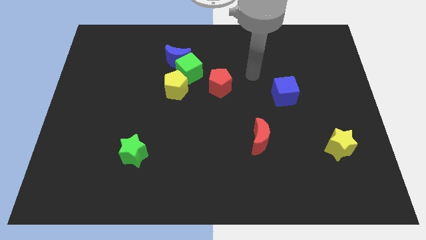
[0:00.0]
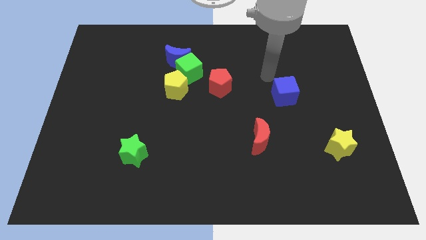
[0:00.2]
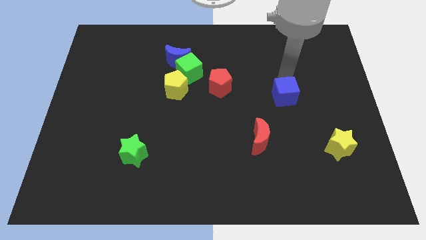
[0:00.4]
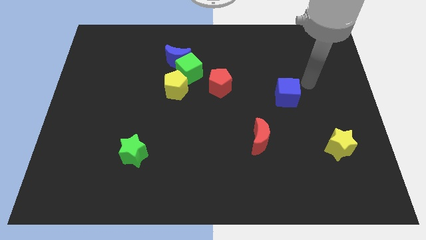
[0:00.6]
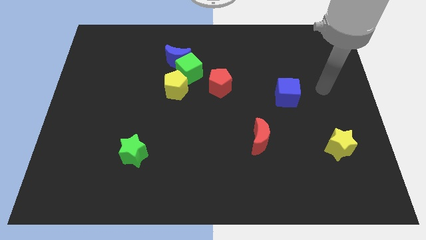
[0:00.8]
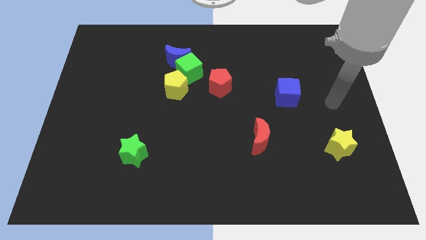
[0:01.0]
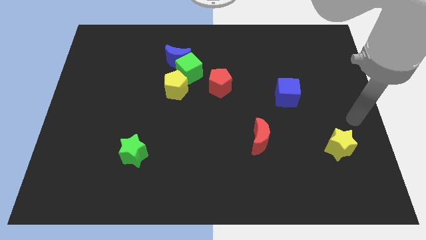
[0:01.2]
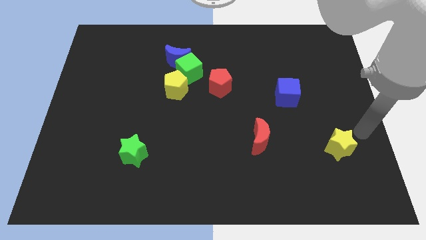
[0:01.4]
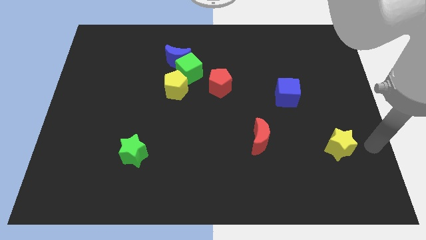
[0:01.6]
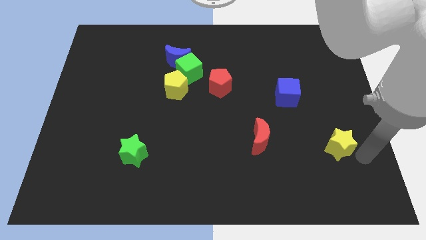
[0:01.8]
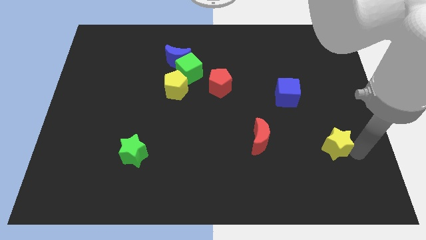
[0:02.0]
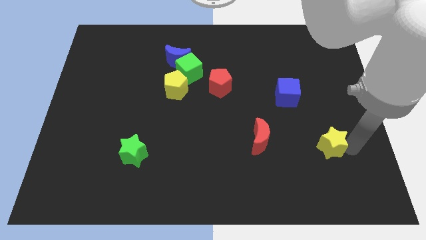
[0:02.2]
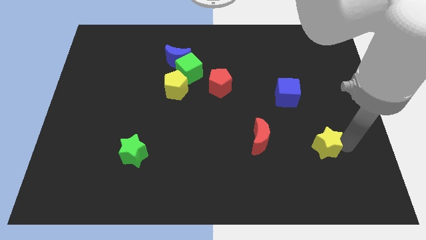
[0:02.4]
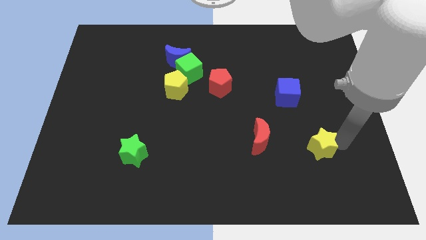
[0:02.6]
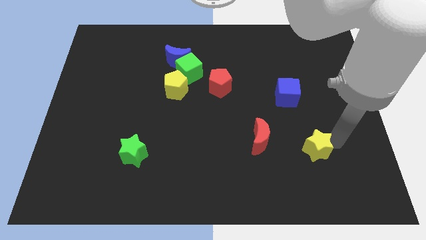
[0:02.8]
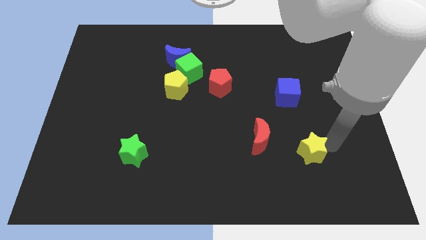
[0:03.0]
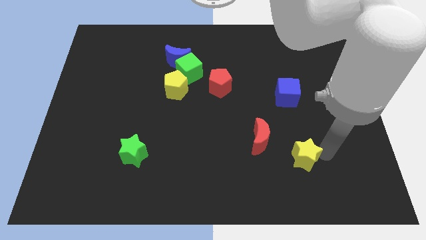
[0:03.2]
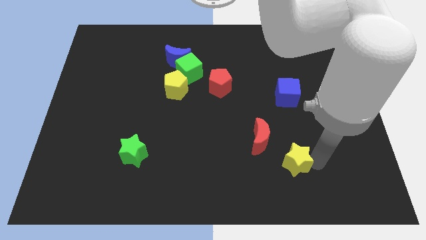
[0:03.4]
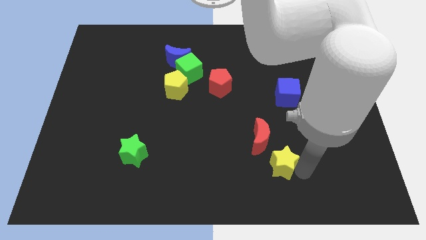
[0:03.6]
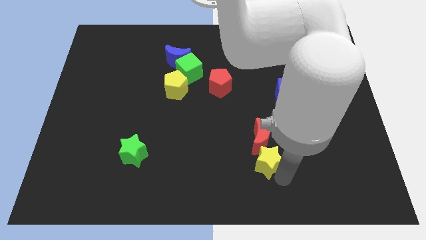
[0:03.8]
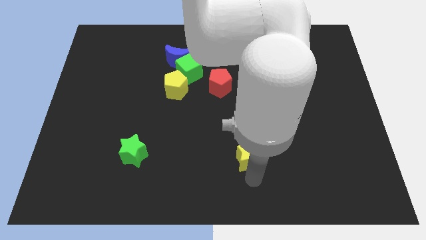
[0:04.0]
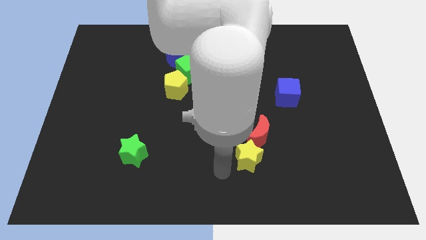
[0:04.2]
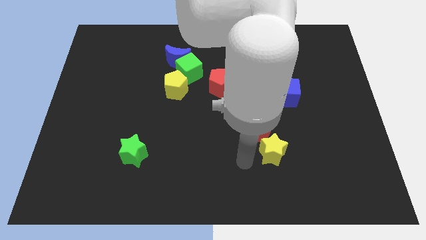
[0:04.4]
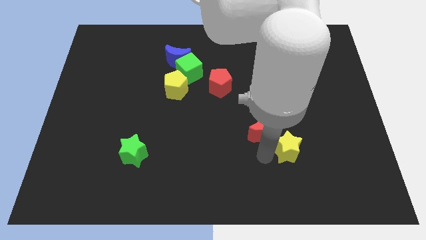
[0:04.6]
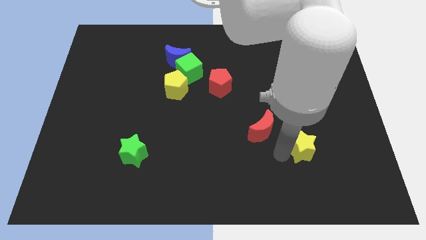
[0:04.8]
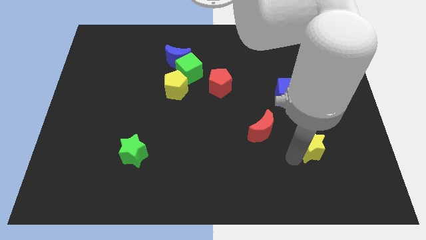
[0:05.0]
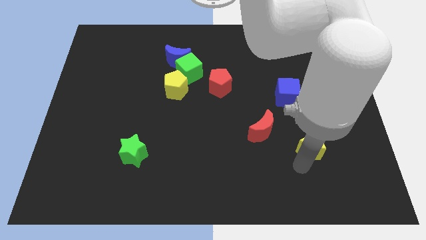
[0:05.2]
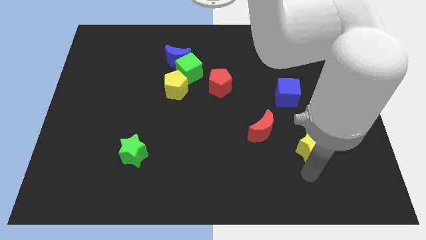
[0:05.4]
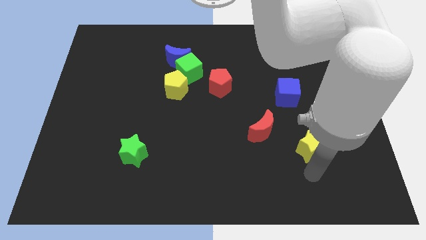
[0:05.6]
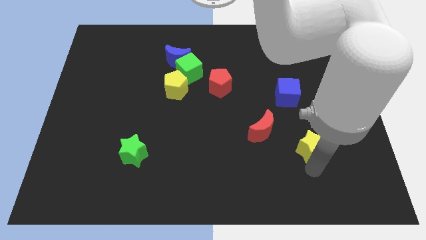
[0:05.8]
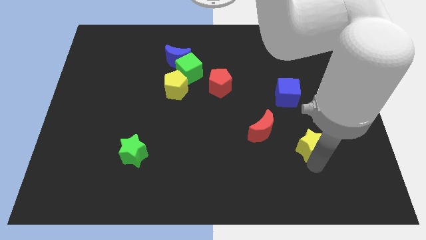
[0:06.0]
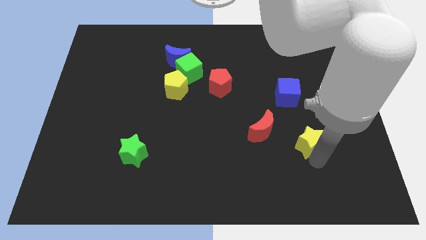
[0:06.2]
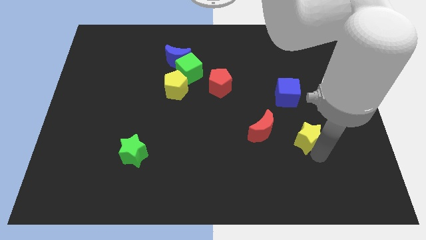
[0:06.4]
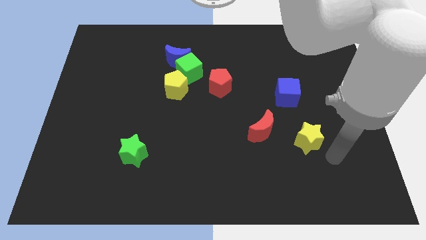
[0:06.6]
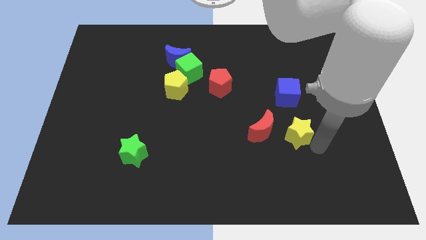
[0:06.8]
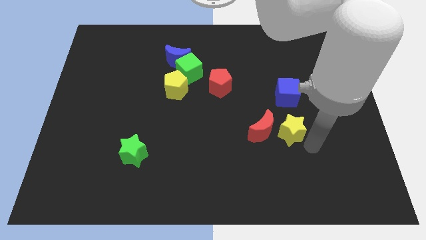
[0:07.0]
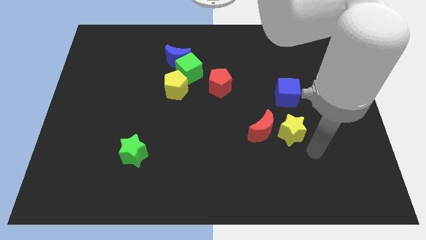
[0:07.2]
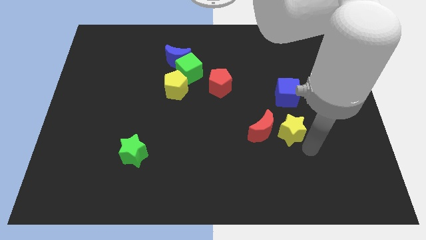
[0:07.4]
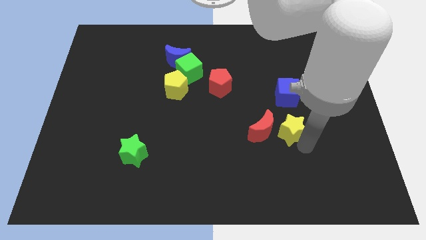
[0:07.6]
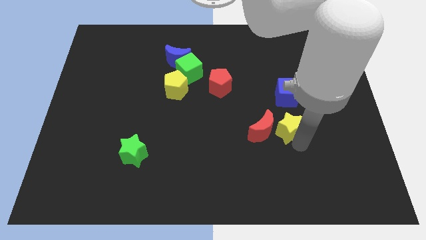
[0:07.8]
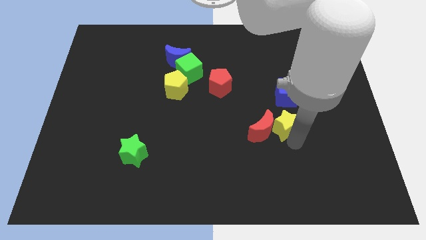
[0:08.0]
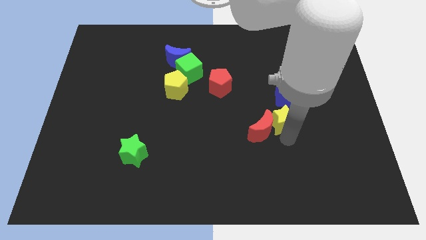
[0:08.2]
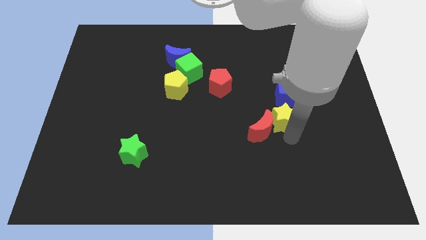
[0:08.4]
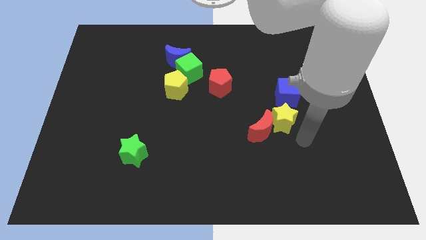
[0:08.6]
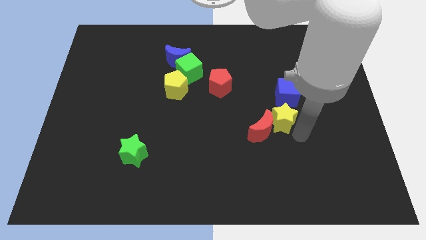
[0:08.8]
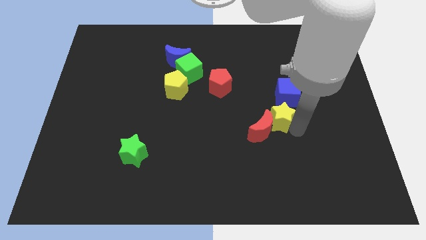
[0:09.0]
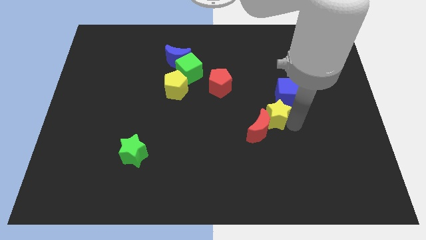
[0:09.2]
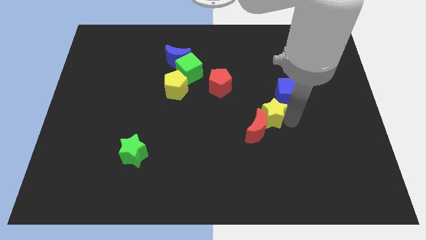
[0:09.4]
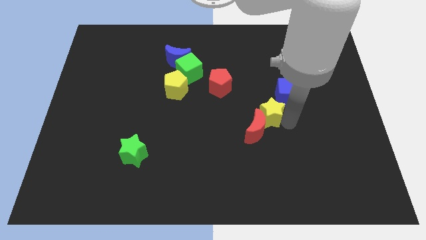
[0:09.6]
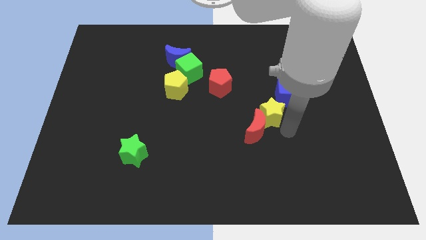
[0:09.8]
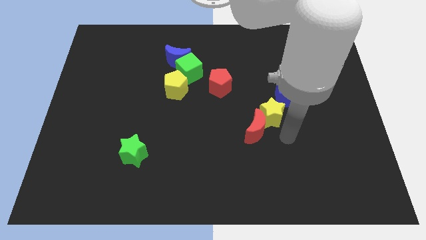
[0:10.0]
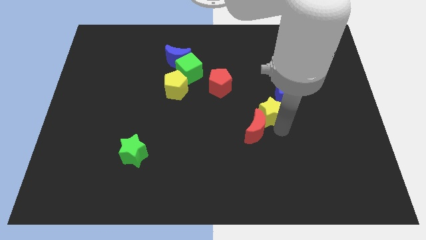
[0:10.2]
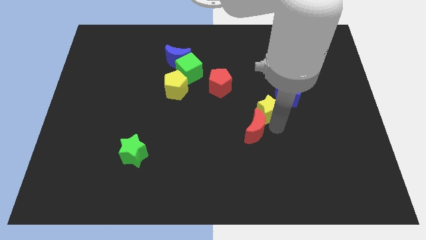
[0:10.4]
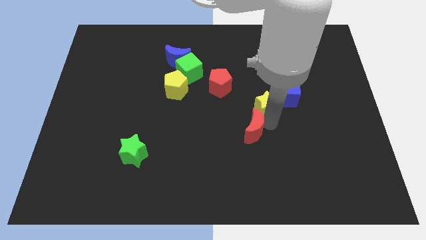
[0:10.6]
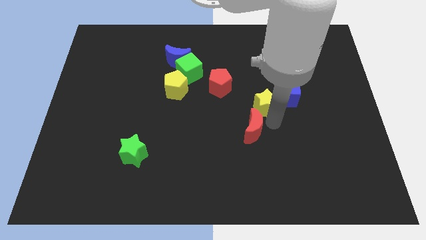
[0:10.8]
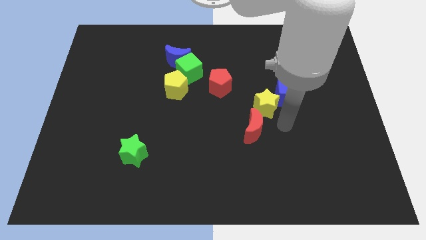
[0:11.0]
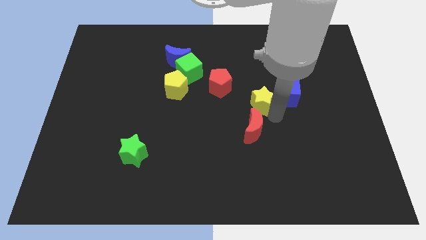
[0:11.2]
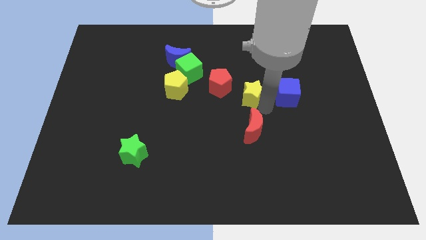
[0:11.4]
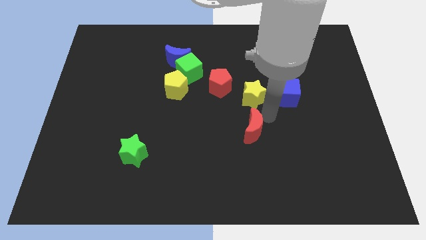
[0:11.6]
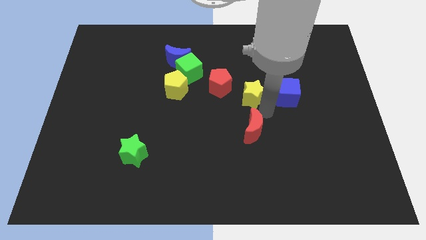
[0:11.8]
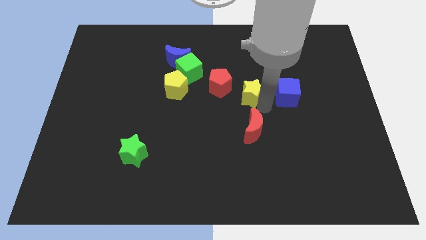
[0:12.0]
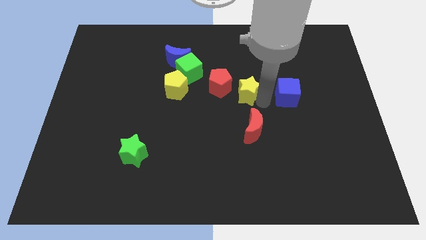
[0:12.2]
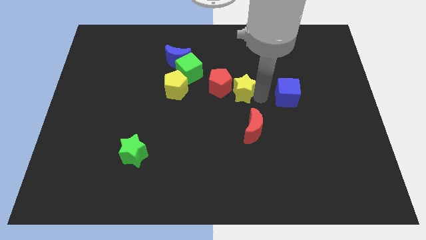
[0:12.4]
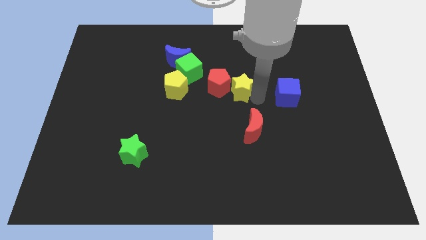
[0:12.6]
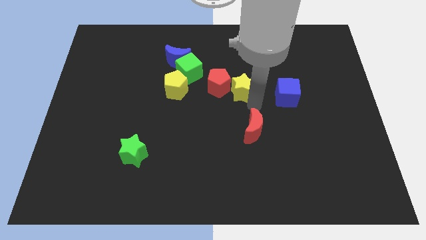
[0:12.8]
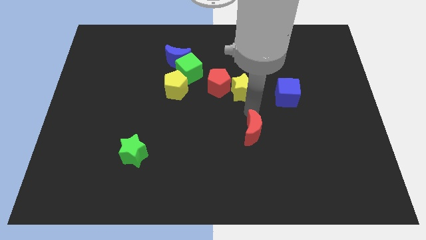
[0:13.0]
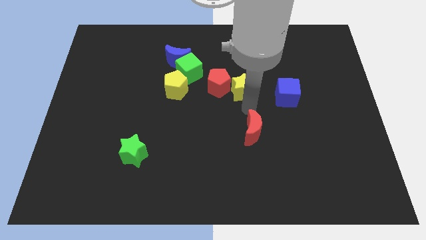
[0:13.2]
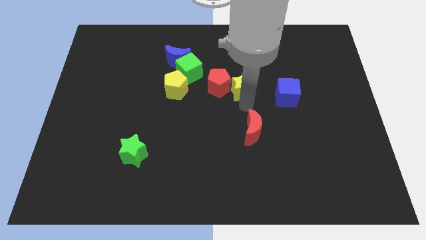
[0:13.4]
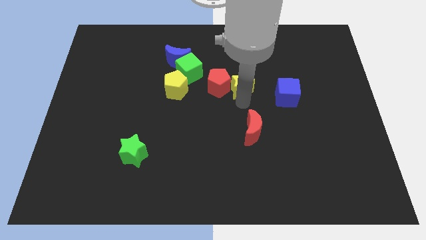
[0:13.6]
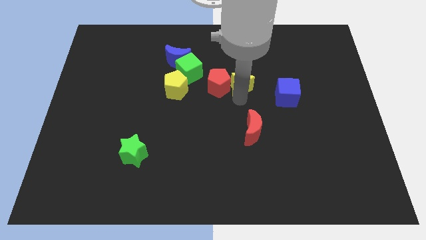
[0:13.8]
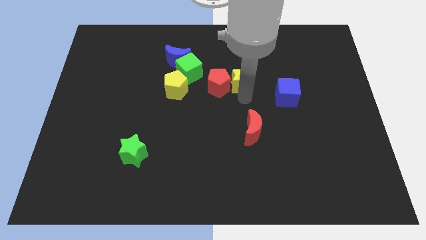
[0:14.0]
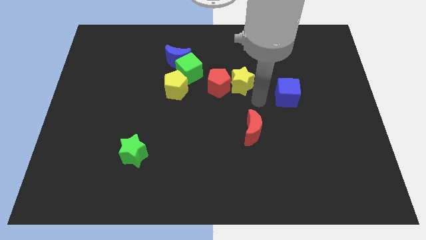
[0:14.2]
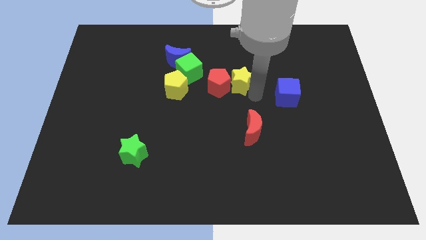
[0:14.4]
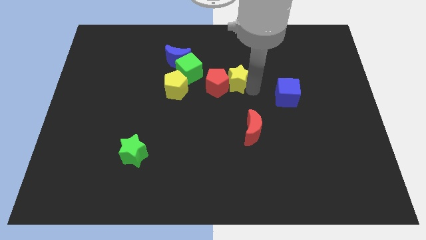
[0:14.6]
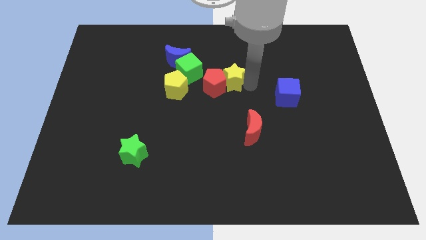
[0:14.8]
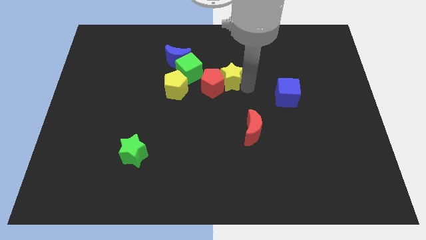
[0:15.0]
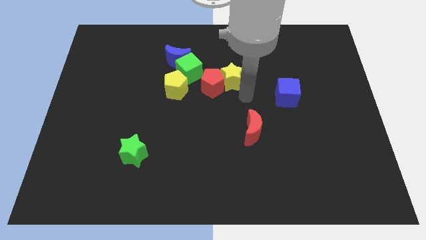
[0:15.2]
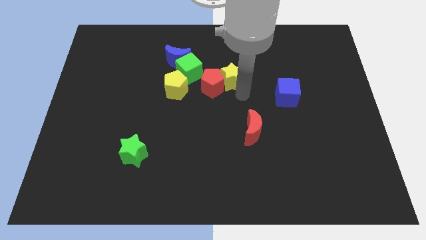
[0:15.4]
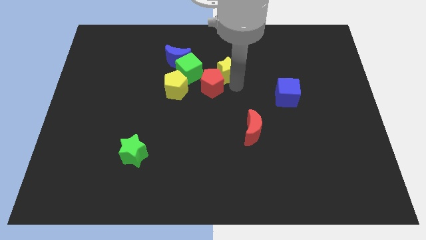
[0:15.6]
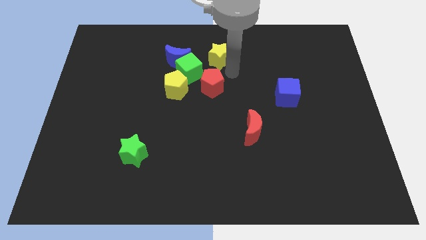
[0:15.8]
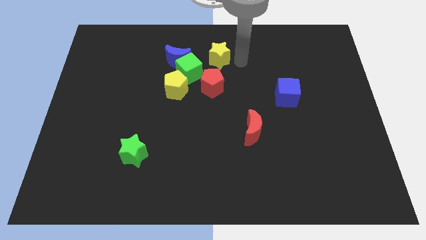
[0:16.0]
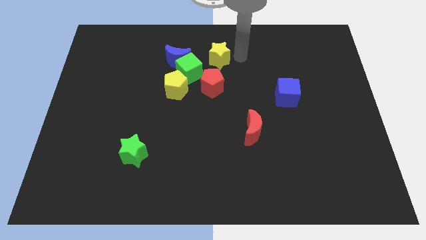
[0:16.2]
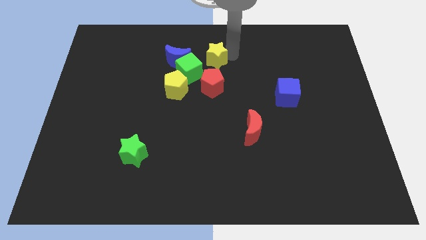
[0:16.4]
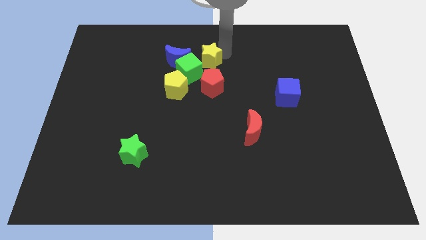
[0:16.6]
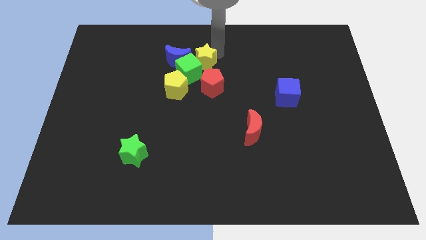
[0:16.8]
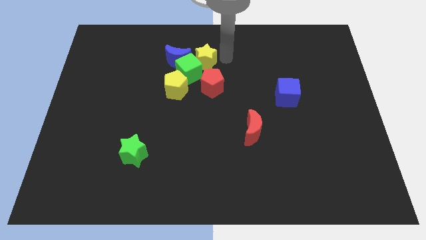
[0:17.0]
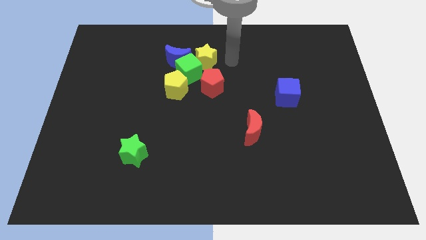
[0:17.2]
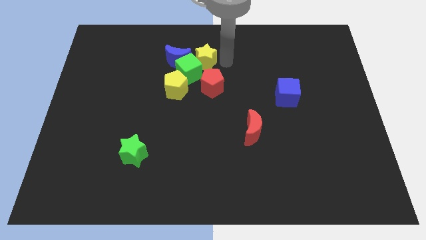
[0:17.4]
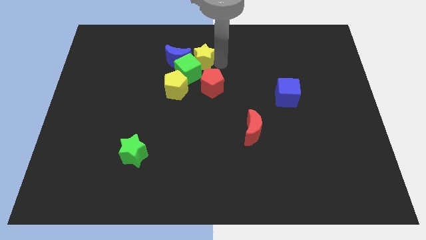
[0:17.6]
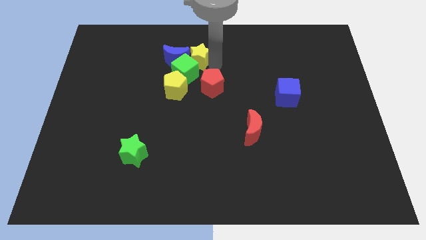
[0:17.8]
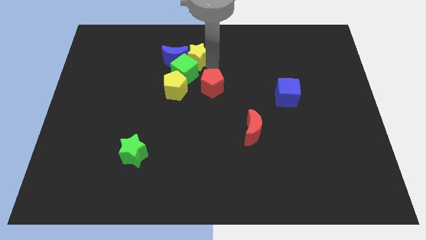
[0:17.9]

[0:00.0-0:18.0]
move the yellow star towards the blue moon
